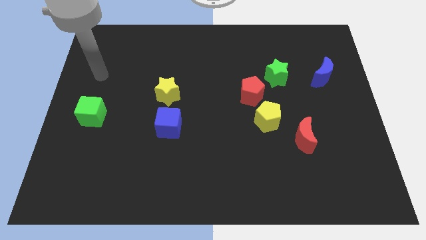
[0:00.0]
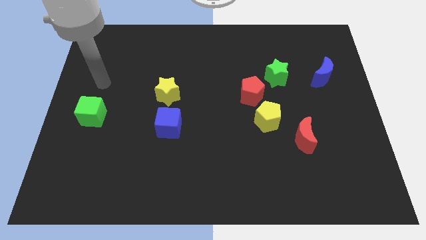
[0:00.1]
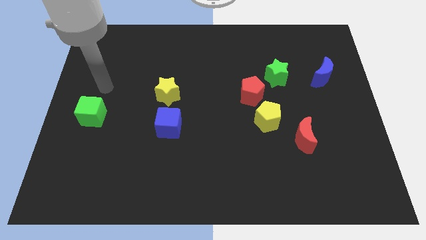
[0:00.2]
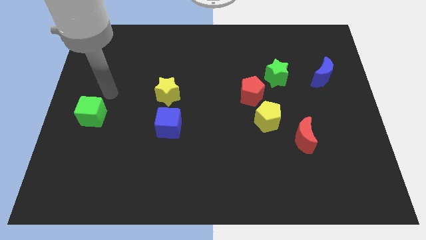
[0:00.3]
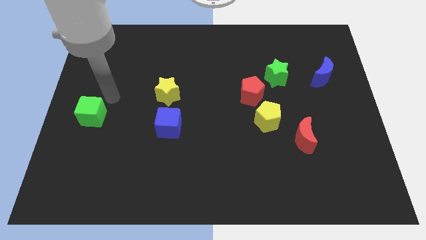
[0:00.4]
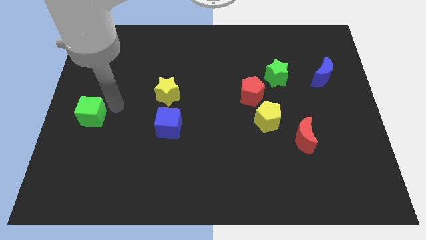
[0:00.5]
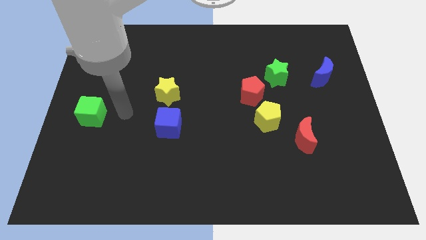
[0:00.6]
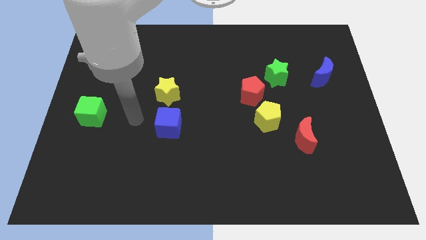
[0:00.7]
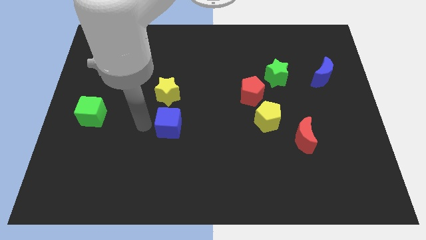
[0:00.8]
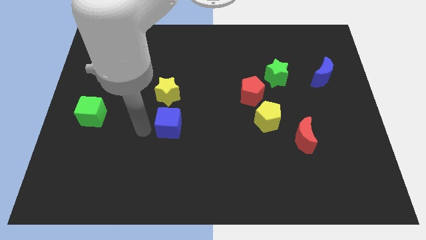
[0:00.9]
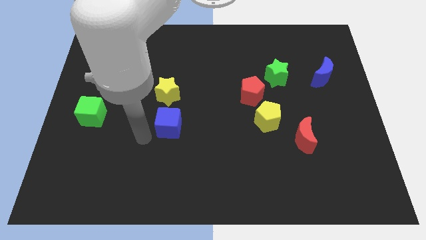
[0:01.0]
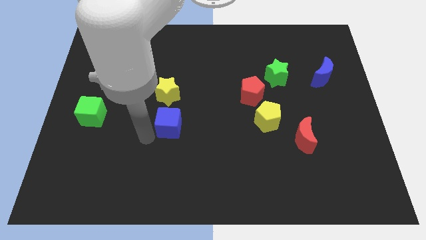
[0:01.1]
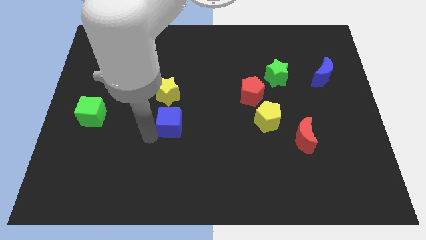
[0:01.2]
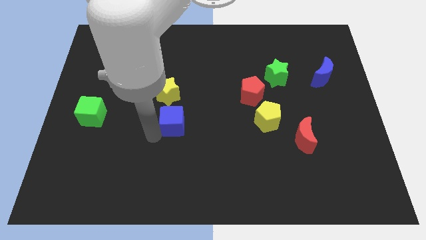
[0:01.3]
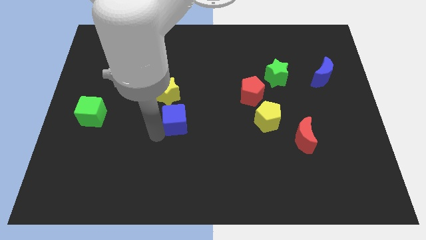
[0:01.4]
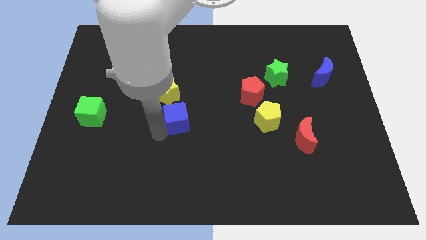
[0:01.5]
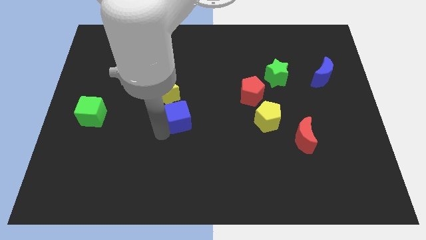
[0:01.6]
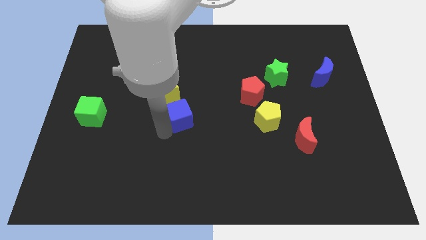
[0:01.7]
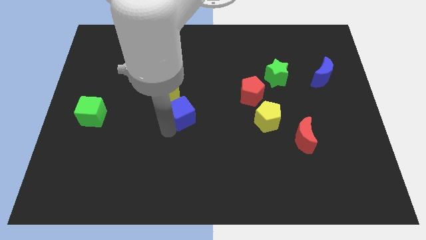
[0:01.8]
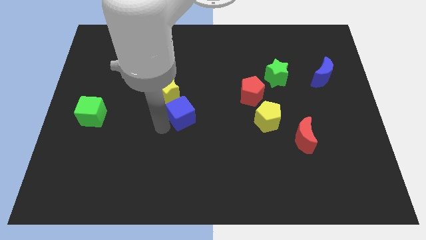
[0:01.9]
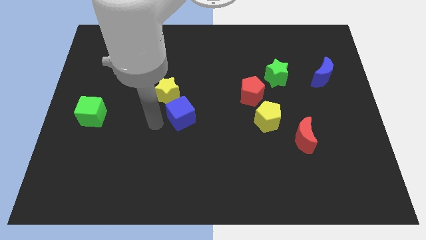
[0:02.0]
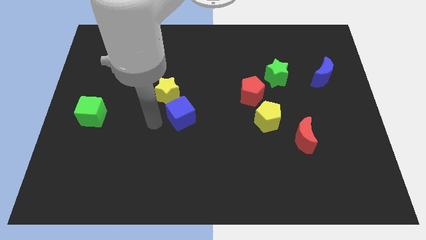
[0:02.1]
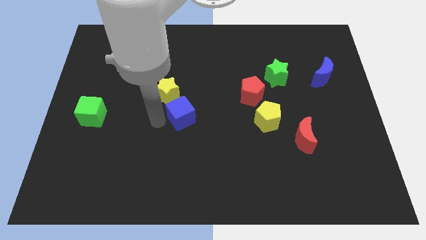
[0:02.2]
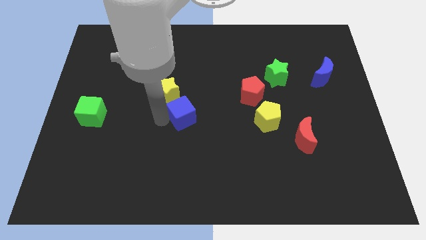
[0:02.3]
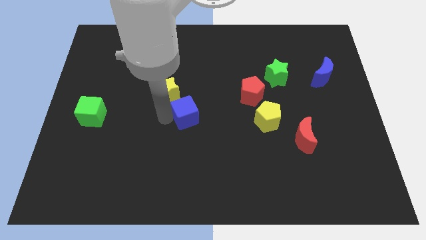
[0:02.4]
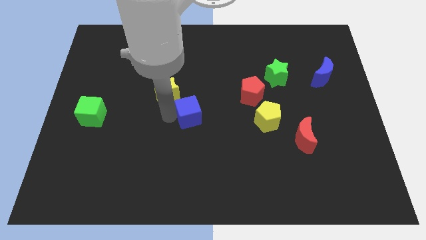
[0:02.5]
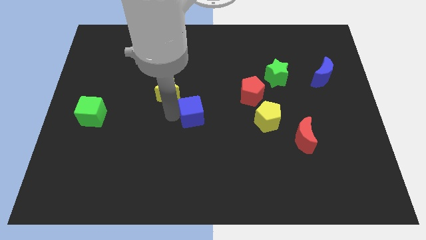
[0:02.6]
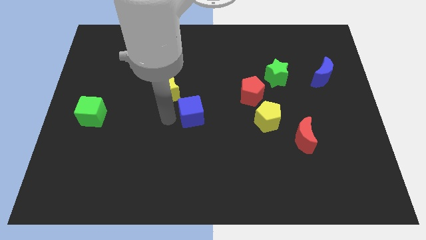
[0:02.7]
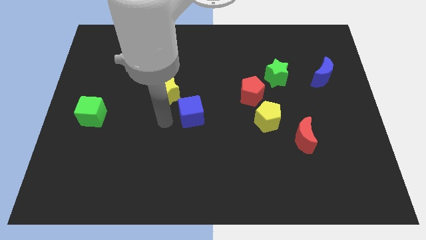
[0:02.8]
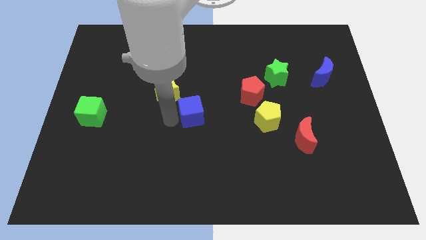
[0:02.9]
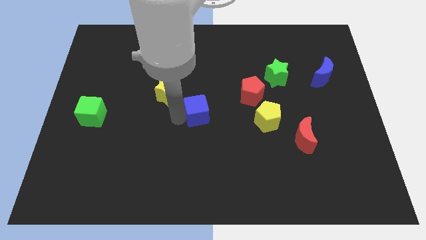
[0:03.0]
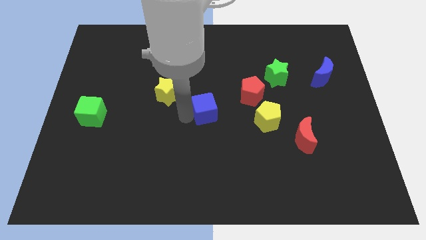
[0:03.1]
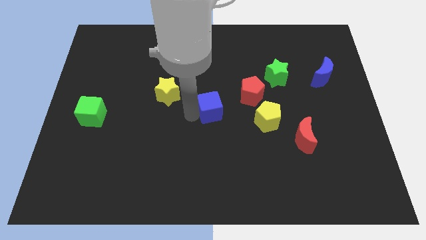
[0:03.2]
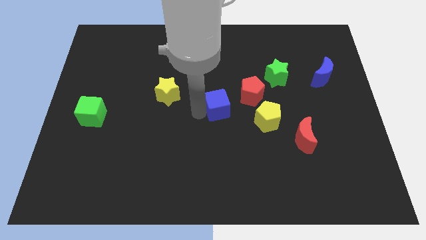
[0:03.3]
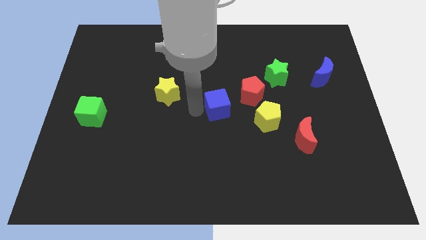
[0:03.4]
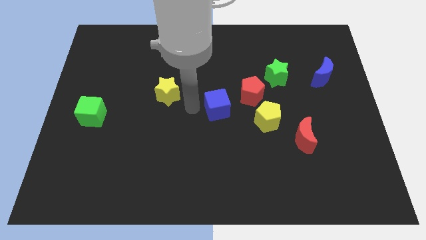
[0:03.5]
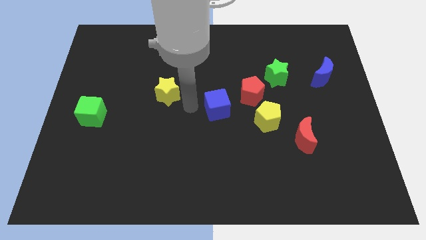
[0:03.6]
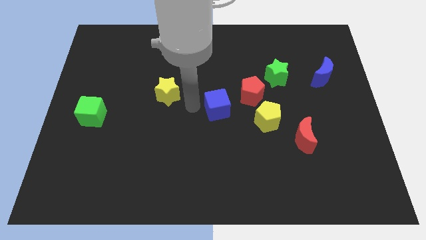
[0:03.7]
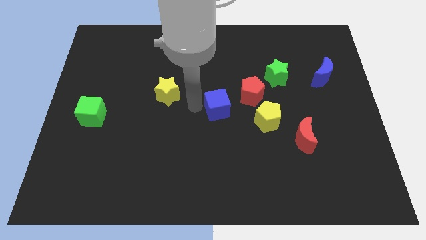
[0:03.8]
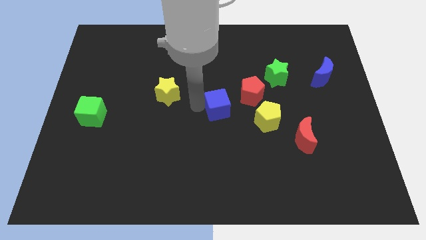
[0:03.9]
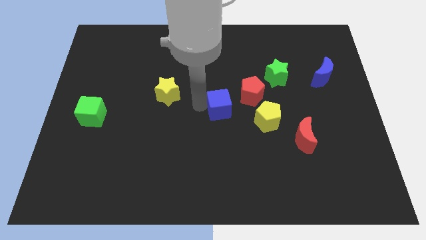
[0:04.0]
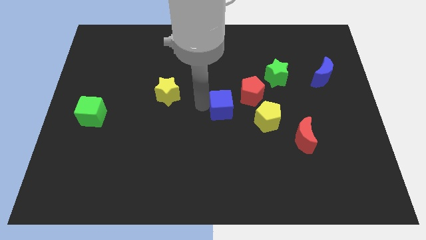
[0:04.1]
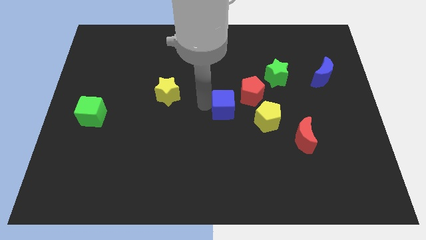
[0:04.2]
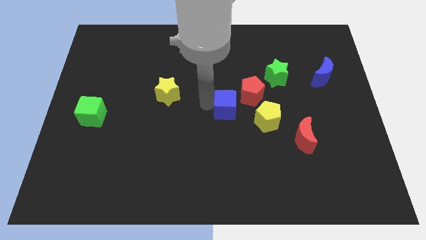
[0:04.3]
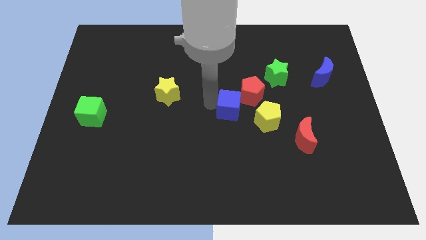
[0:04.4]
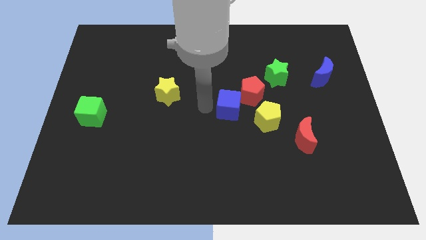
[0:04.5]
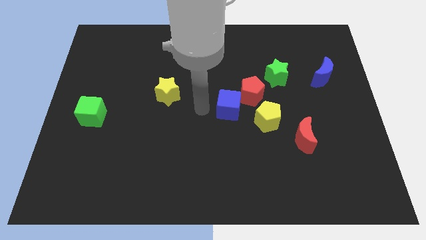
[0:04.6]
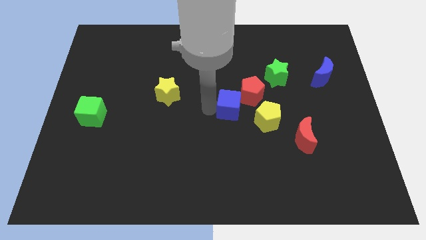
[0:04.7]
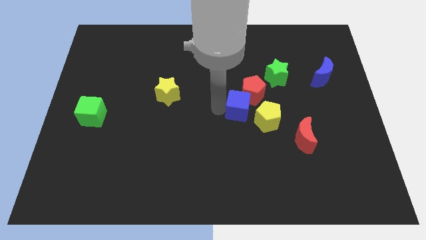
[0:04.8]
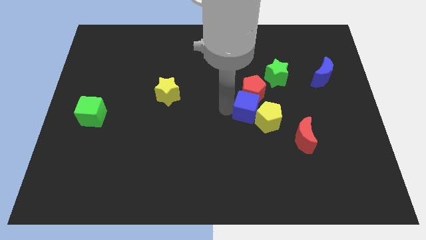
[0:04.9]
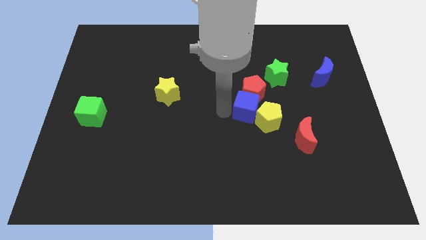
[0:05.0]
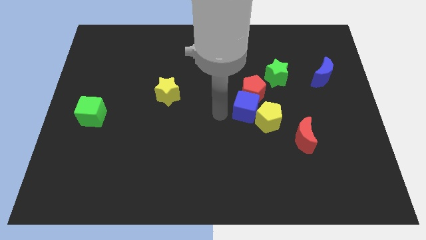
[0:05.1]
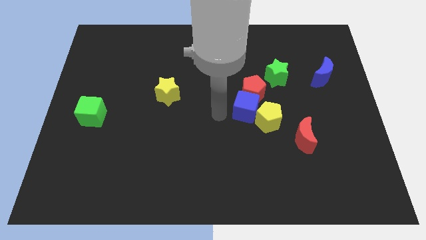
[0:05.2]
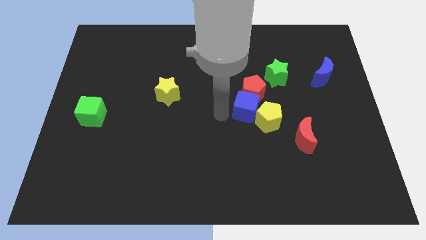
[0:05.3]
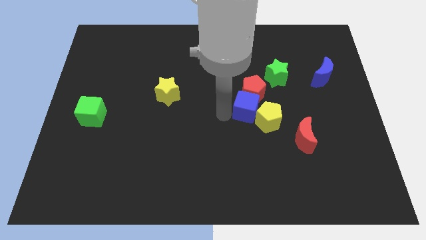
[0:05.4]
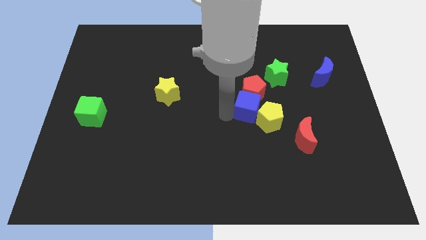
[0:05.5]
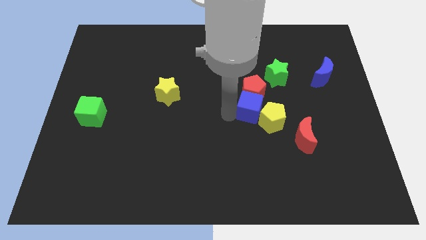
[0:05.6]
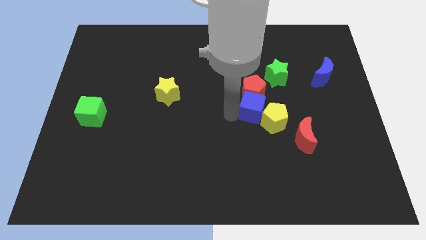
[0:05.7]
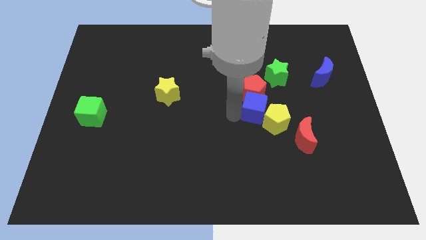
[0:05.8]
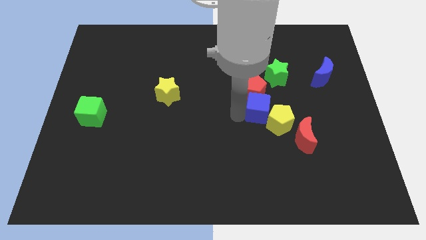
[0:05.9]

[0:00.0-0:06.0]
push the blue cube right

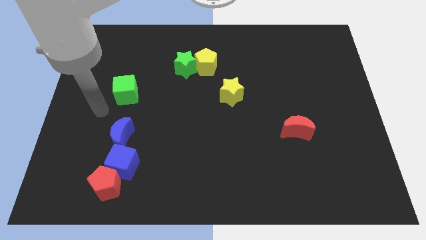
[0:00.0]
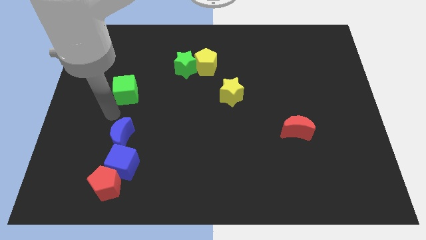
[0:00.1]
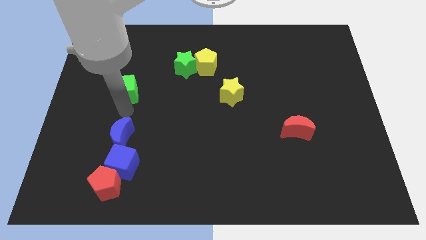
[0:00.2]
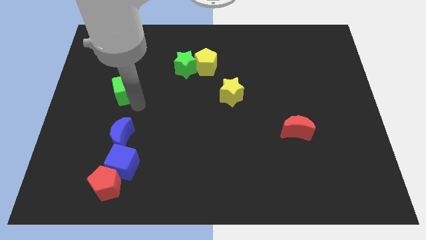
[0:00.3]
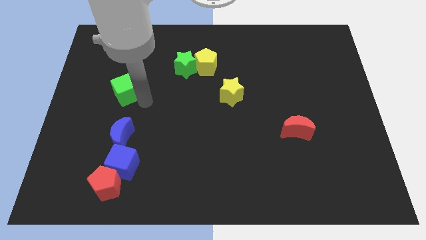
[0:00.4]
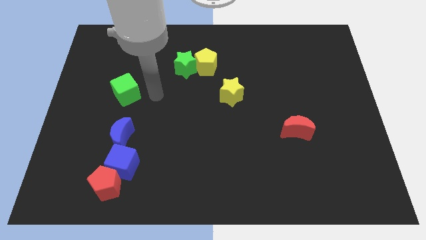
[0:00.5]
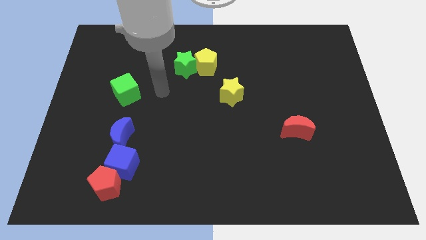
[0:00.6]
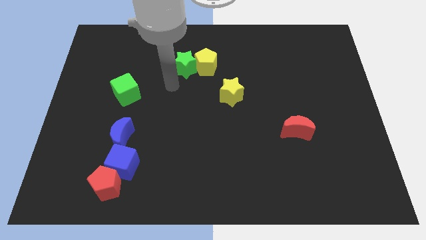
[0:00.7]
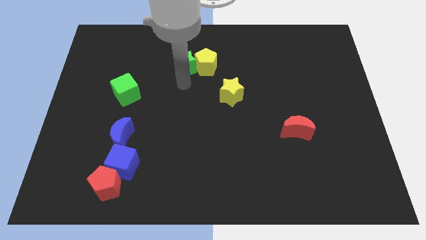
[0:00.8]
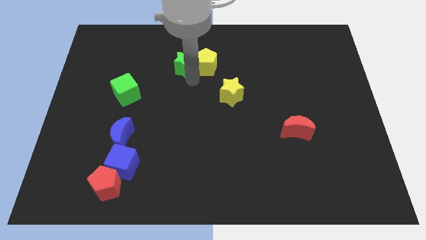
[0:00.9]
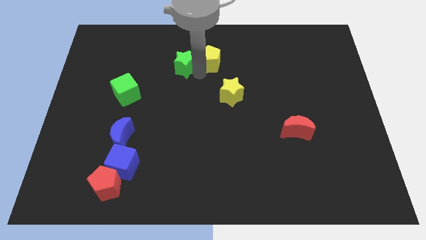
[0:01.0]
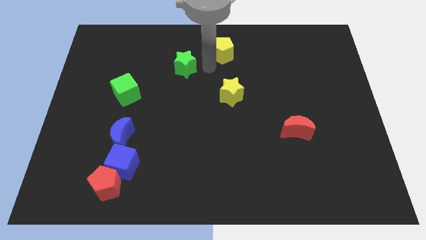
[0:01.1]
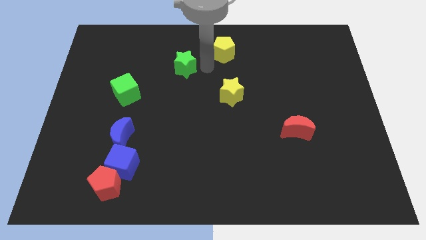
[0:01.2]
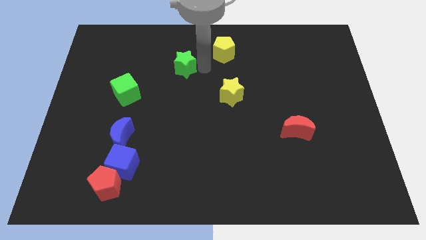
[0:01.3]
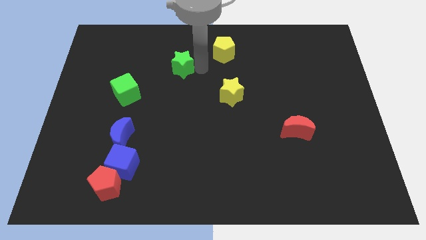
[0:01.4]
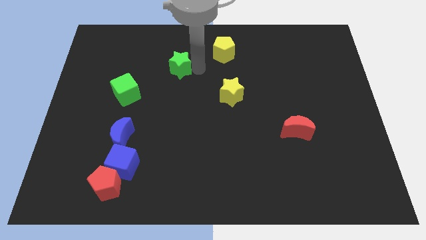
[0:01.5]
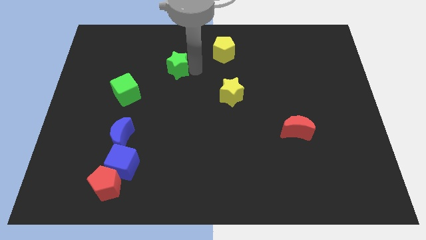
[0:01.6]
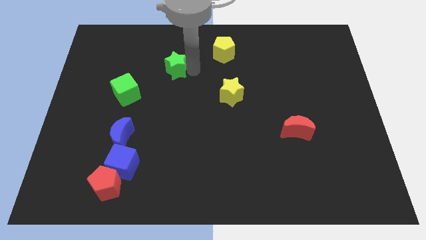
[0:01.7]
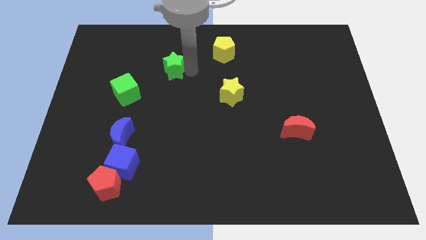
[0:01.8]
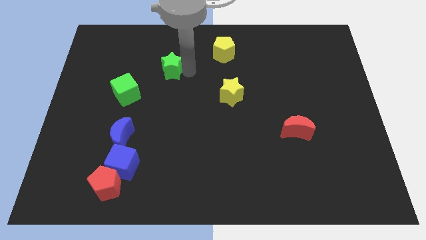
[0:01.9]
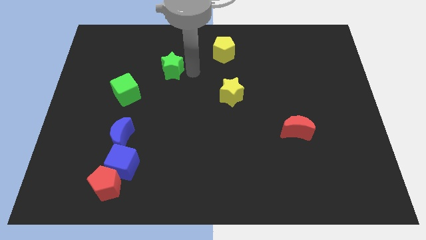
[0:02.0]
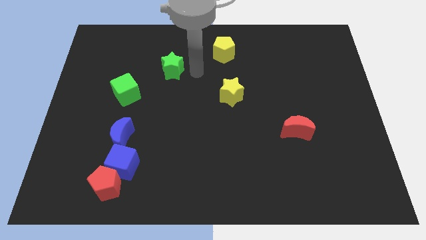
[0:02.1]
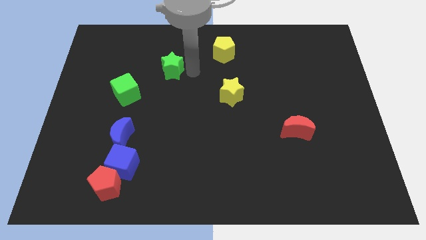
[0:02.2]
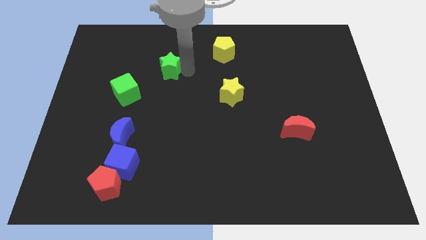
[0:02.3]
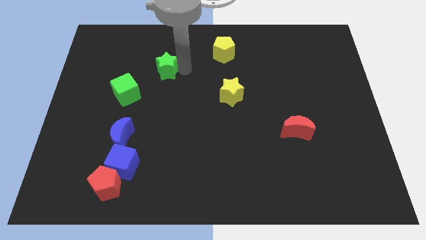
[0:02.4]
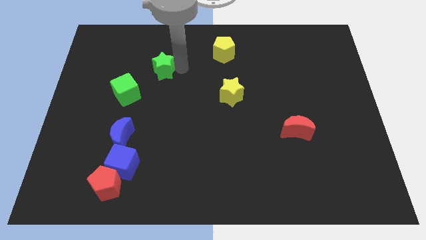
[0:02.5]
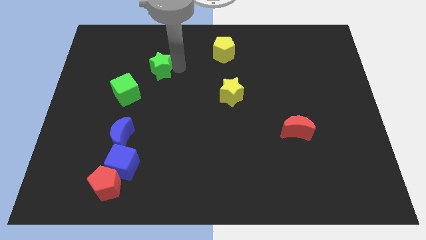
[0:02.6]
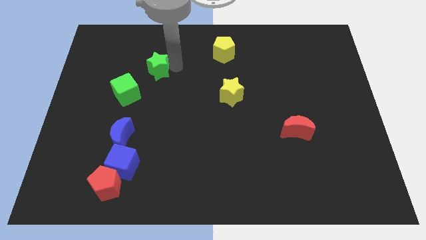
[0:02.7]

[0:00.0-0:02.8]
slightly move the green star to the left
